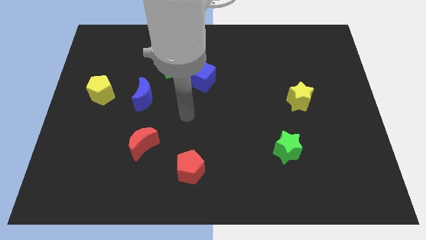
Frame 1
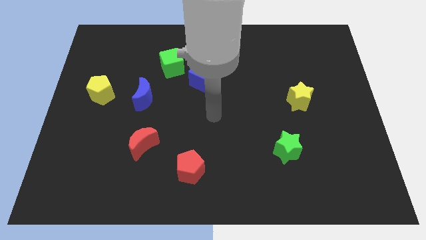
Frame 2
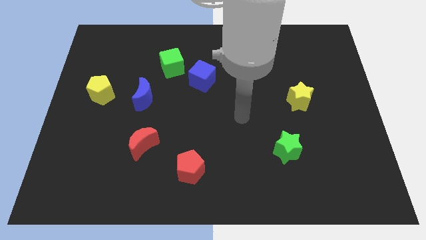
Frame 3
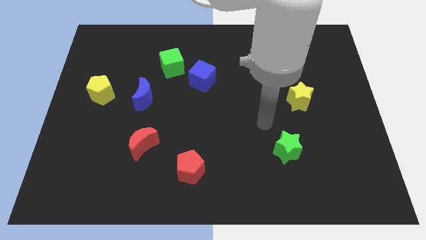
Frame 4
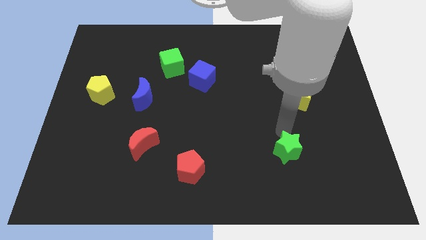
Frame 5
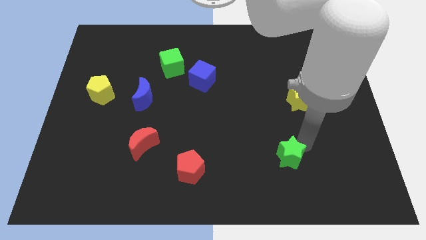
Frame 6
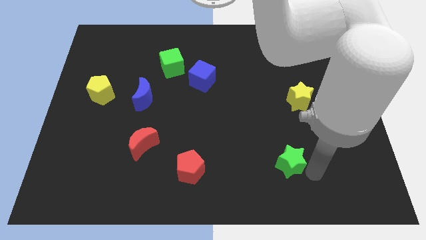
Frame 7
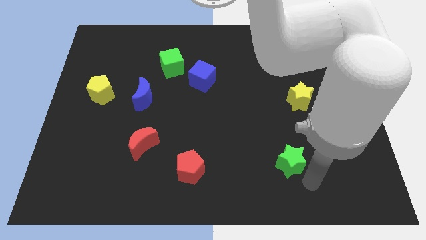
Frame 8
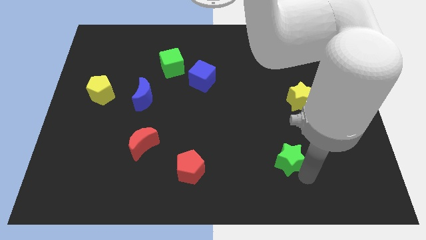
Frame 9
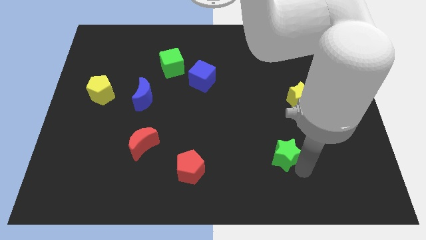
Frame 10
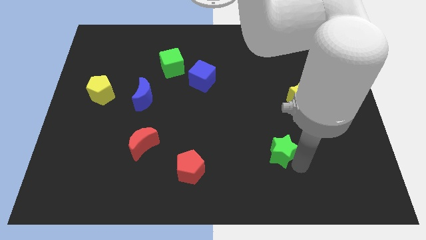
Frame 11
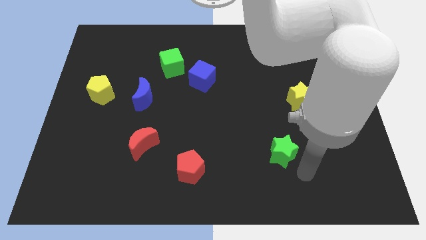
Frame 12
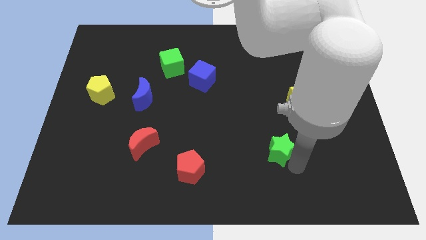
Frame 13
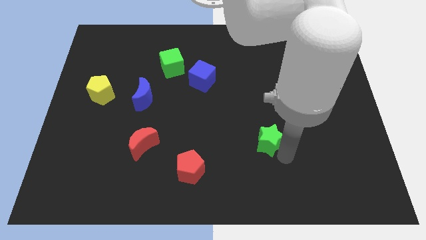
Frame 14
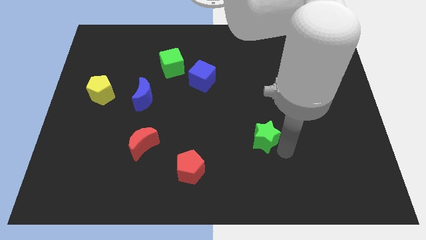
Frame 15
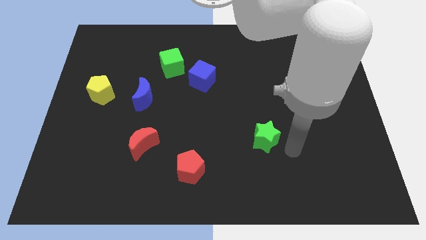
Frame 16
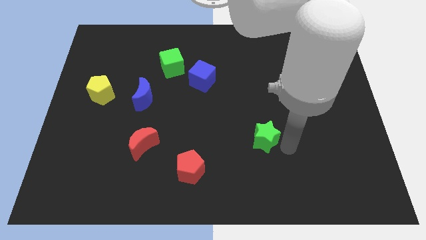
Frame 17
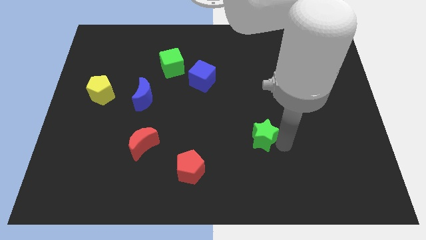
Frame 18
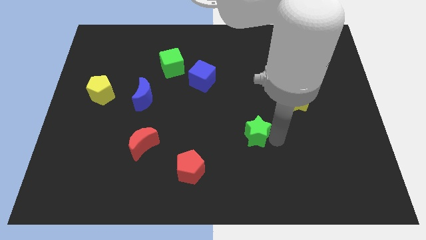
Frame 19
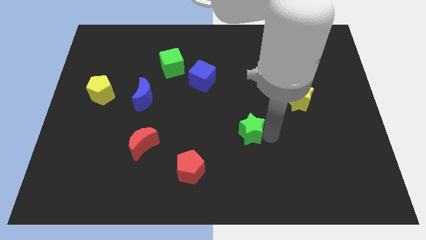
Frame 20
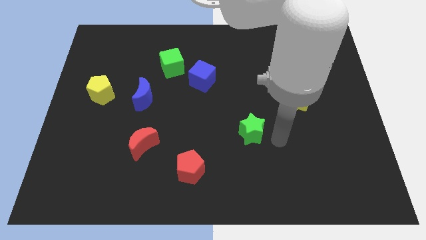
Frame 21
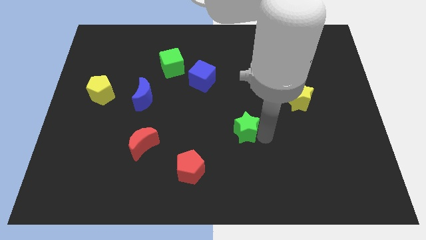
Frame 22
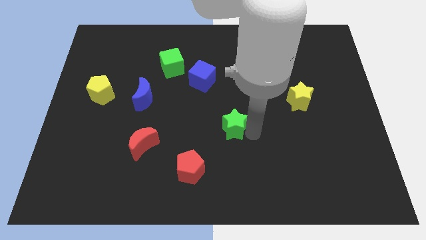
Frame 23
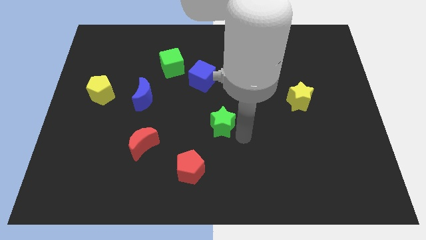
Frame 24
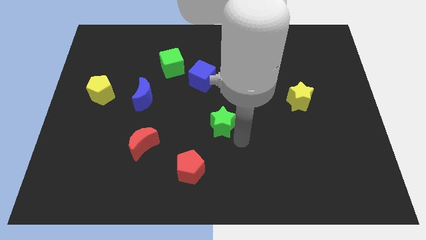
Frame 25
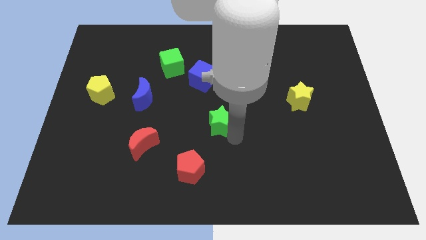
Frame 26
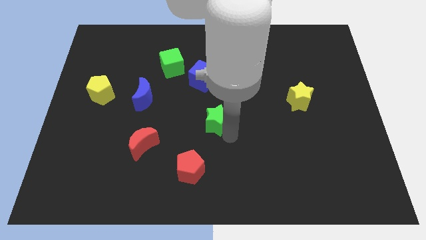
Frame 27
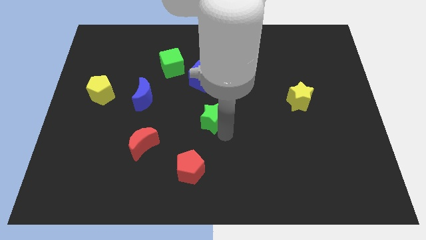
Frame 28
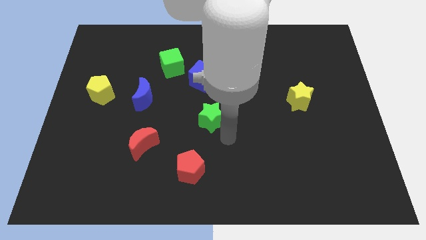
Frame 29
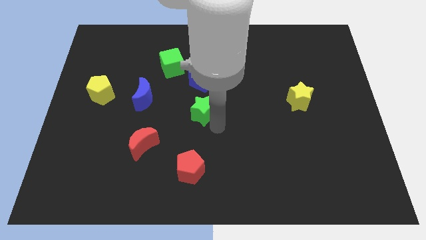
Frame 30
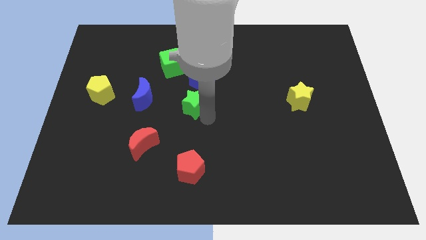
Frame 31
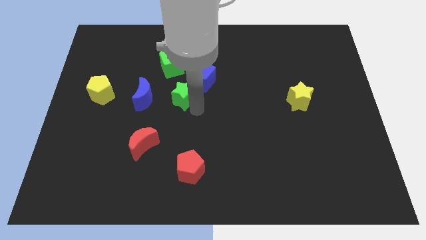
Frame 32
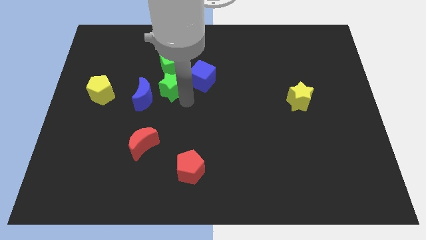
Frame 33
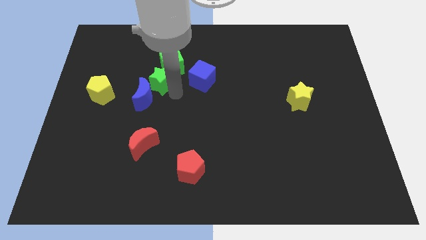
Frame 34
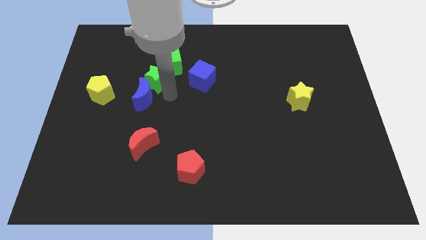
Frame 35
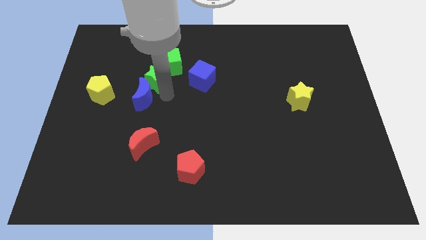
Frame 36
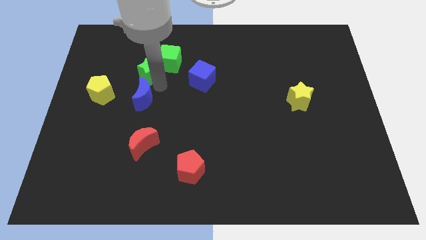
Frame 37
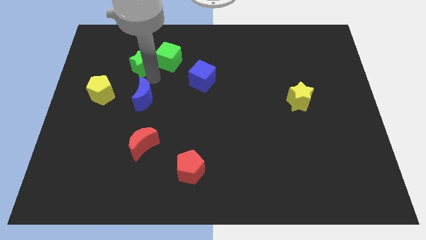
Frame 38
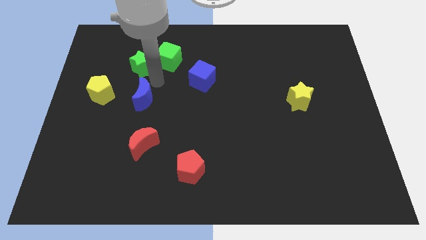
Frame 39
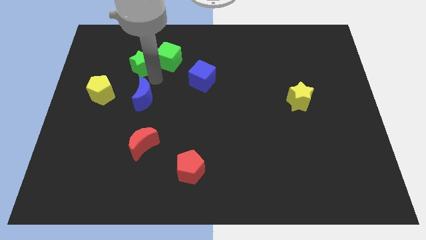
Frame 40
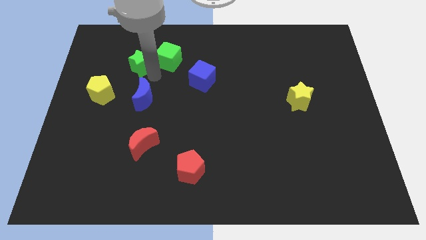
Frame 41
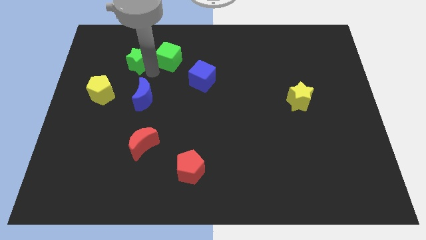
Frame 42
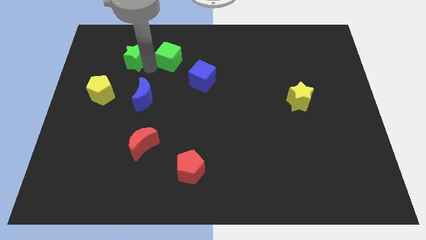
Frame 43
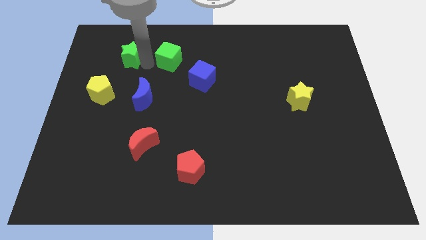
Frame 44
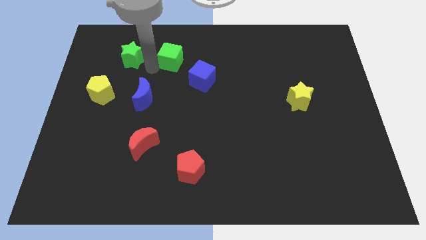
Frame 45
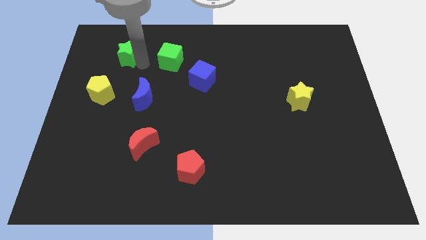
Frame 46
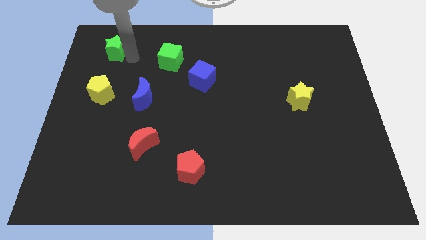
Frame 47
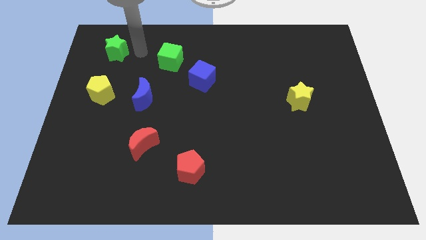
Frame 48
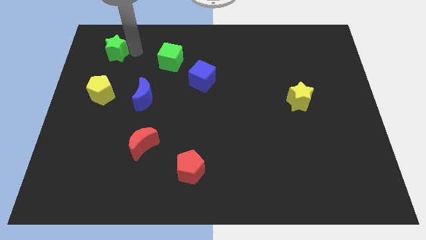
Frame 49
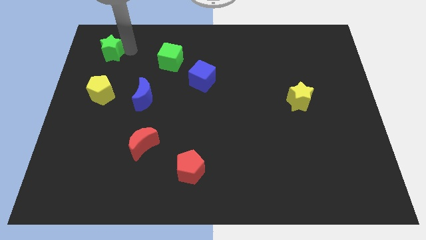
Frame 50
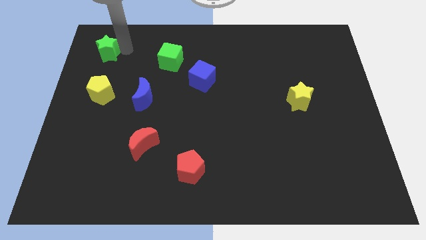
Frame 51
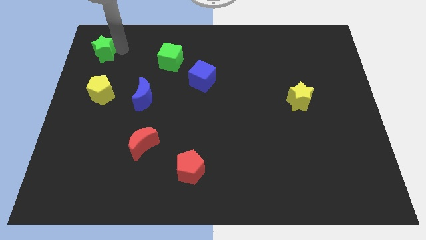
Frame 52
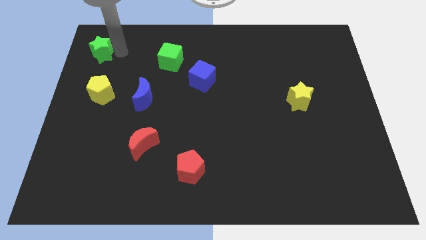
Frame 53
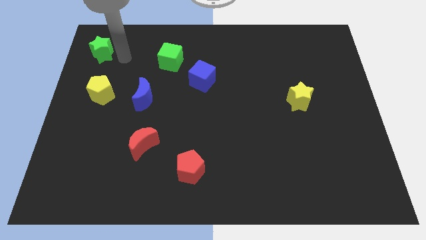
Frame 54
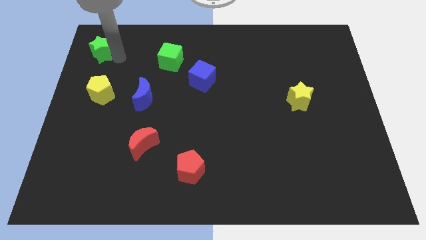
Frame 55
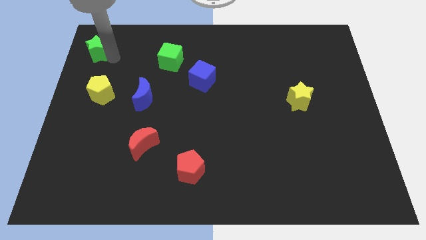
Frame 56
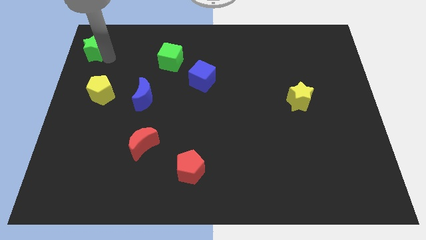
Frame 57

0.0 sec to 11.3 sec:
put the green star to the top left of the board

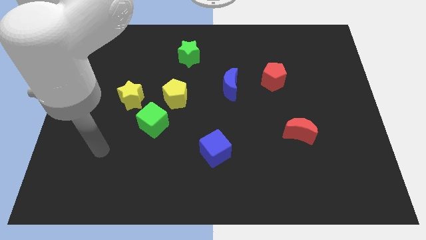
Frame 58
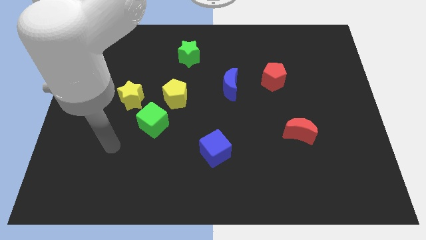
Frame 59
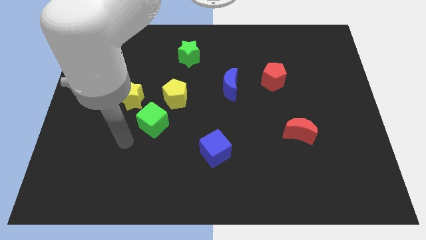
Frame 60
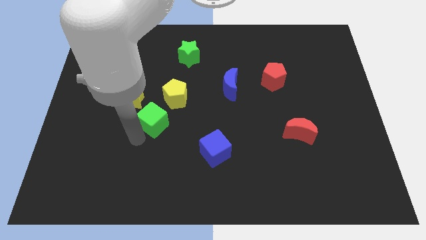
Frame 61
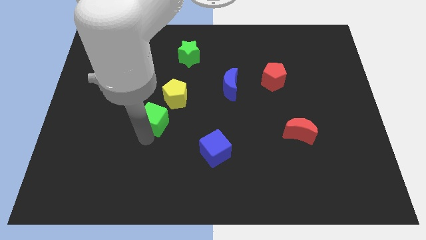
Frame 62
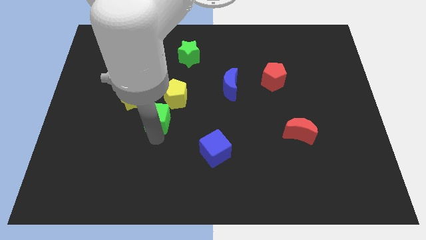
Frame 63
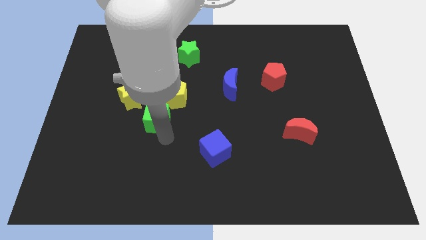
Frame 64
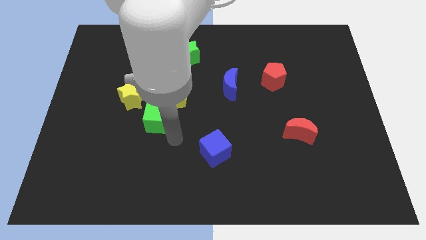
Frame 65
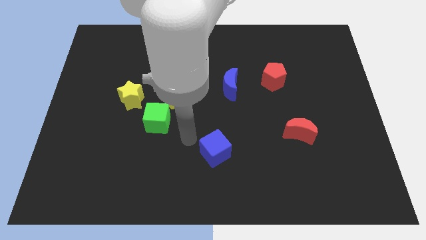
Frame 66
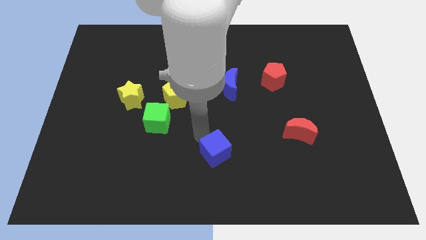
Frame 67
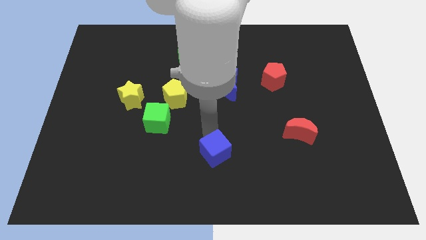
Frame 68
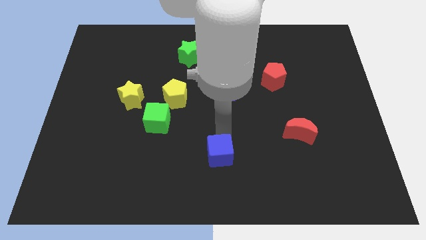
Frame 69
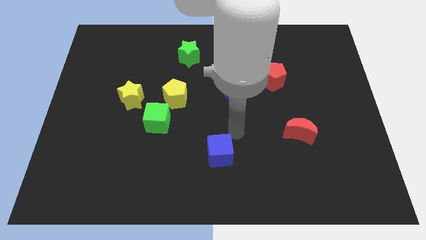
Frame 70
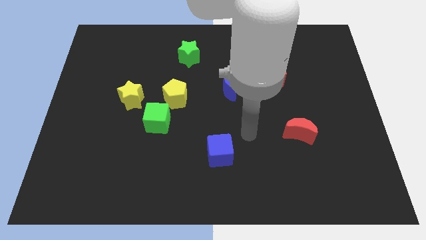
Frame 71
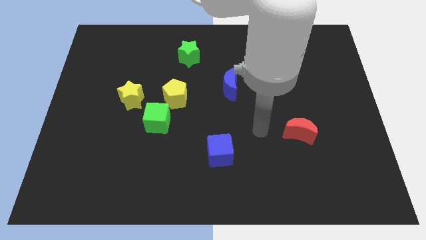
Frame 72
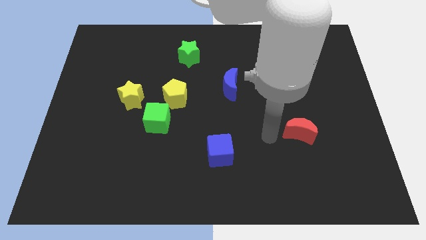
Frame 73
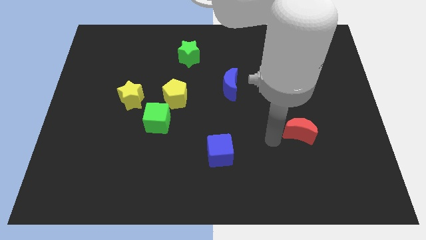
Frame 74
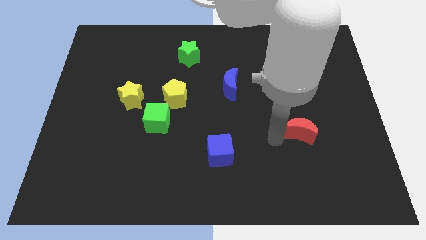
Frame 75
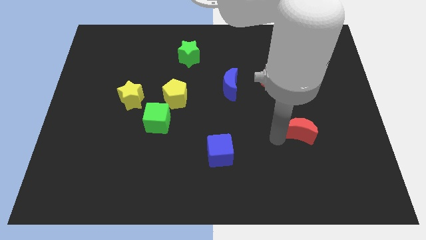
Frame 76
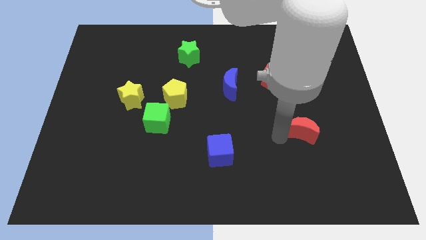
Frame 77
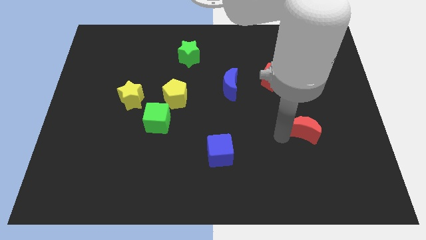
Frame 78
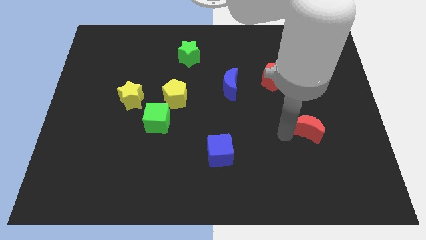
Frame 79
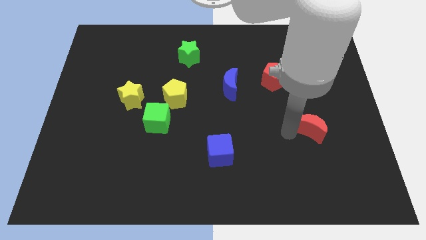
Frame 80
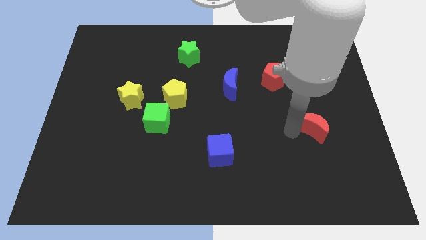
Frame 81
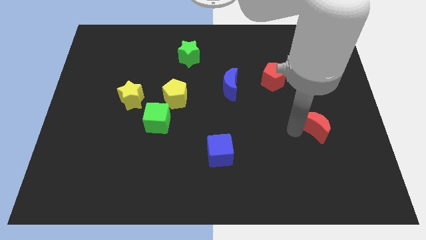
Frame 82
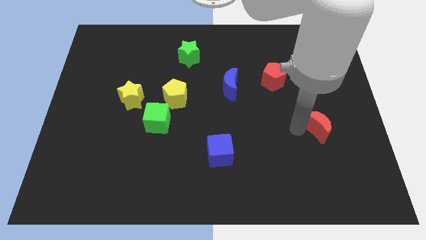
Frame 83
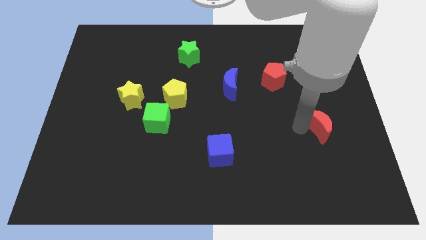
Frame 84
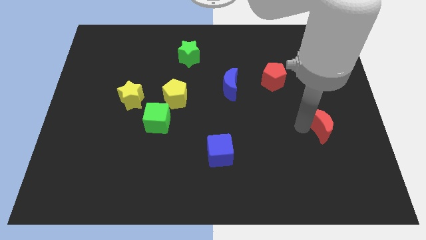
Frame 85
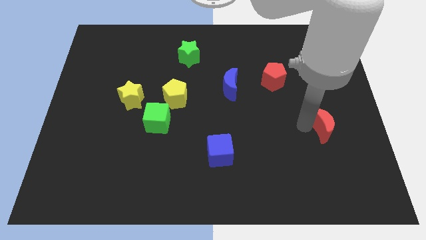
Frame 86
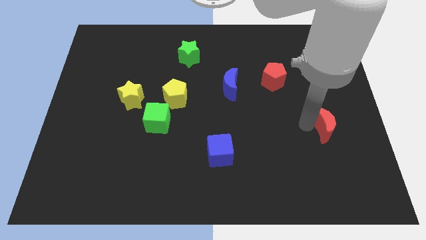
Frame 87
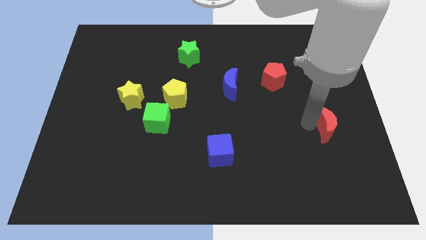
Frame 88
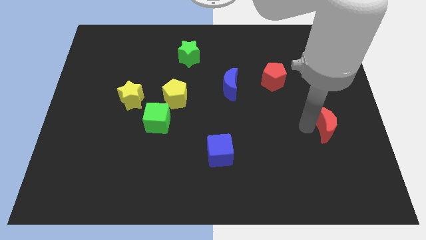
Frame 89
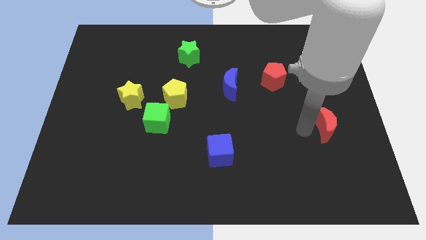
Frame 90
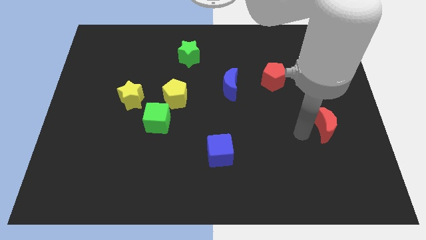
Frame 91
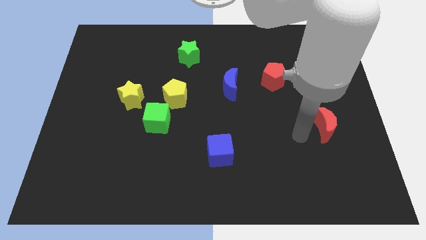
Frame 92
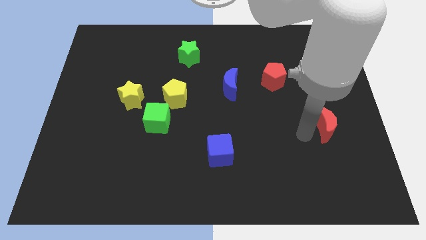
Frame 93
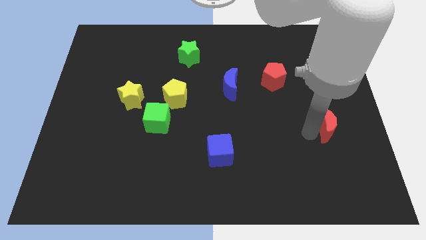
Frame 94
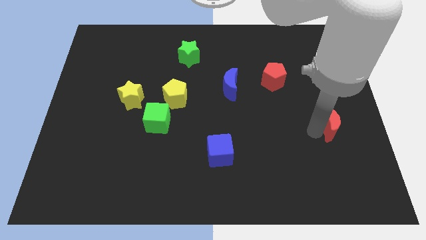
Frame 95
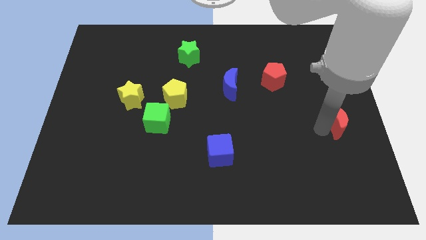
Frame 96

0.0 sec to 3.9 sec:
put the red moon to the right side of the board
